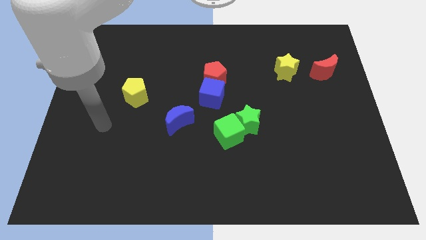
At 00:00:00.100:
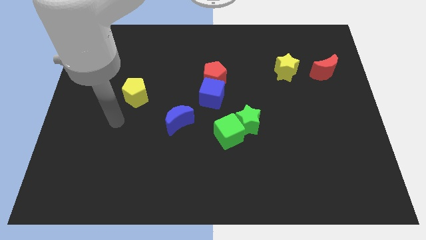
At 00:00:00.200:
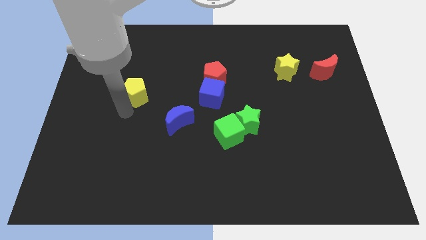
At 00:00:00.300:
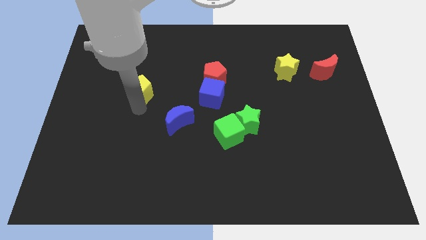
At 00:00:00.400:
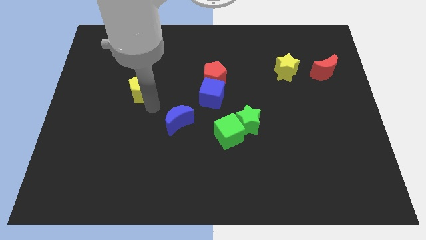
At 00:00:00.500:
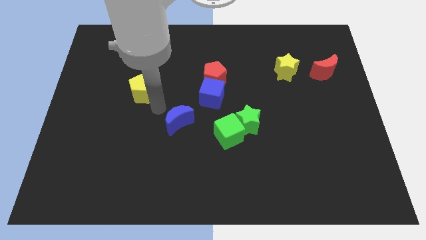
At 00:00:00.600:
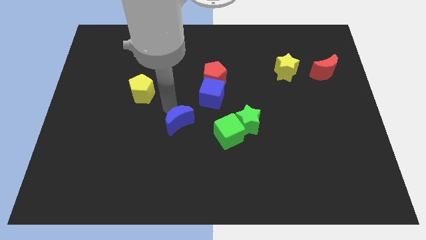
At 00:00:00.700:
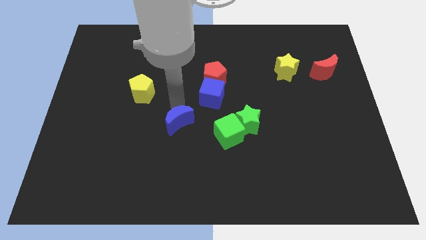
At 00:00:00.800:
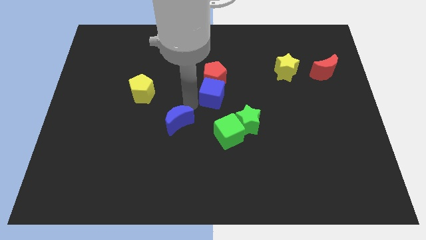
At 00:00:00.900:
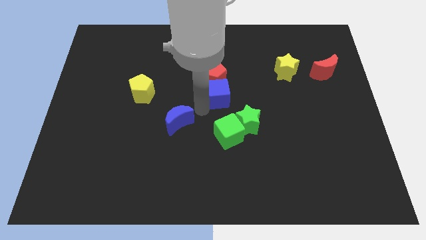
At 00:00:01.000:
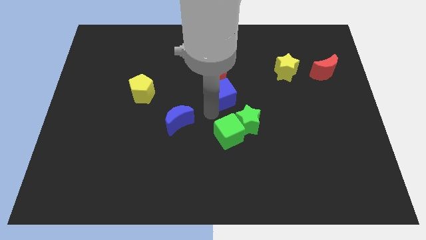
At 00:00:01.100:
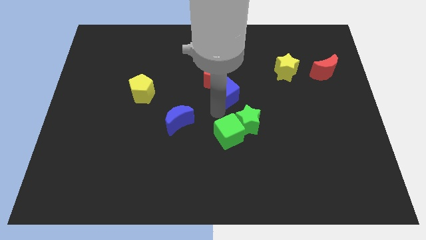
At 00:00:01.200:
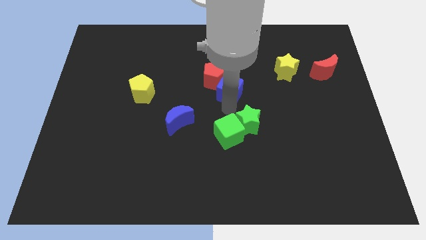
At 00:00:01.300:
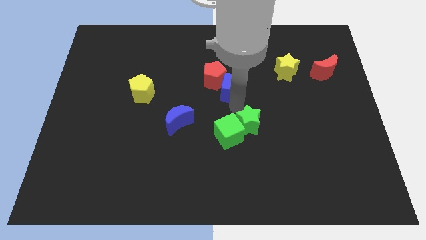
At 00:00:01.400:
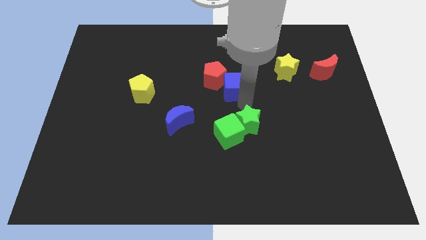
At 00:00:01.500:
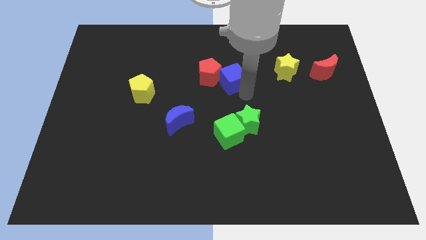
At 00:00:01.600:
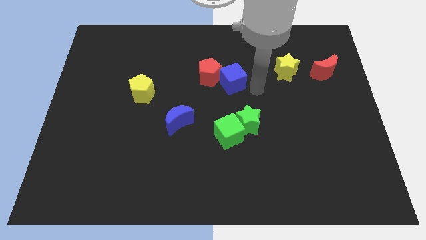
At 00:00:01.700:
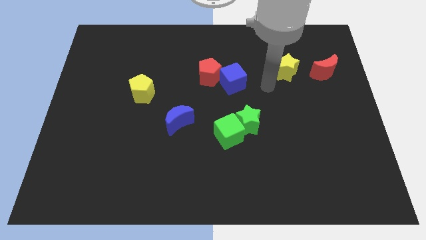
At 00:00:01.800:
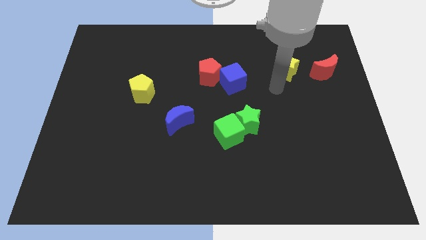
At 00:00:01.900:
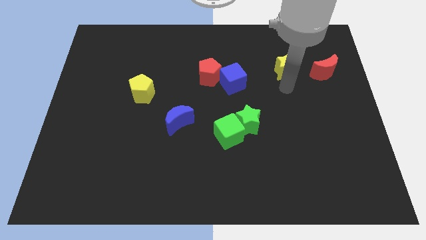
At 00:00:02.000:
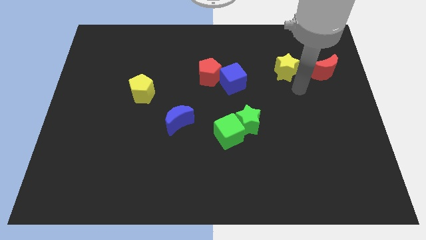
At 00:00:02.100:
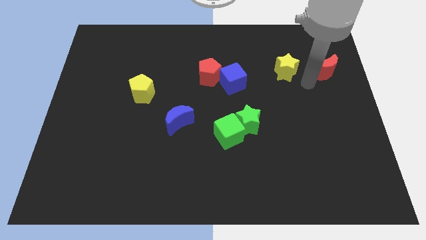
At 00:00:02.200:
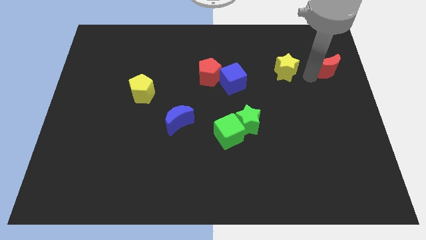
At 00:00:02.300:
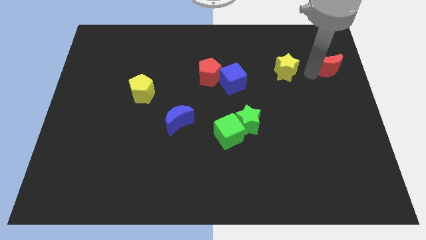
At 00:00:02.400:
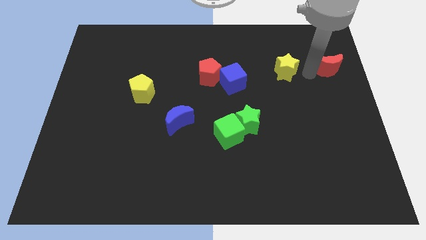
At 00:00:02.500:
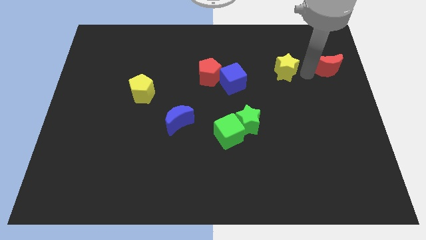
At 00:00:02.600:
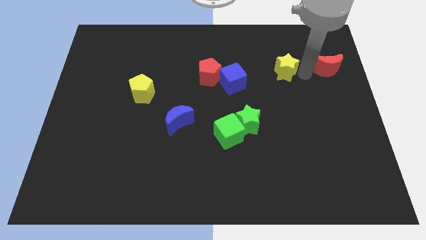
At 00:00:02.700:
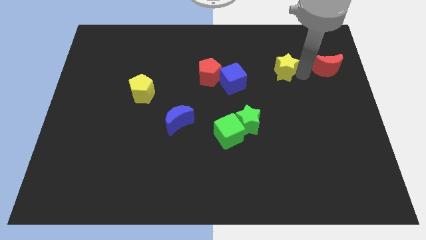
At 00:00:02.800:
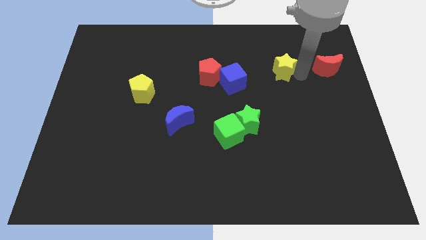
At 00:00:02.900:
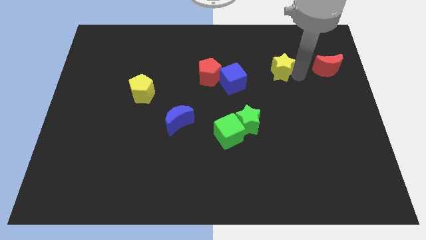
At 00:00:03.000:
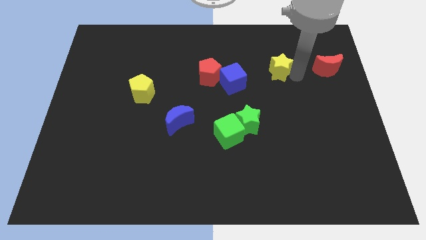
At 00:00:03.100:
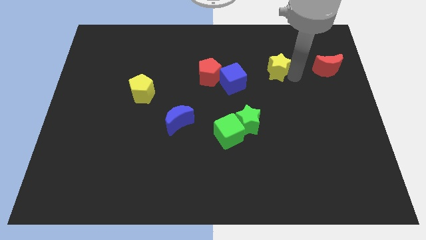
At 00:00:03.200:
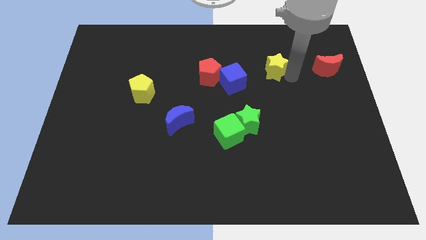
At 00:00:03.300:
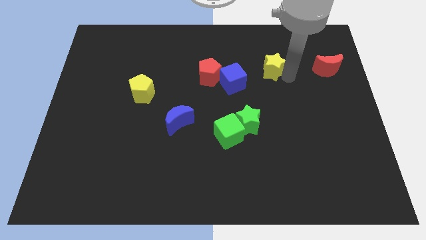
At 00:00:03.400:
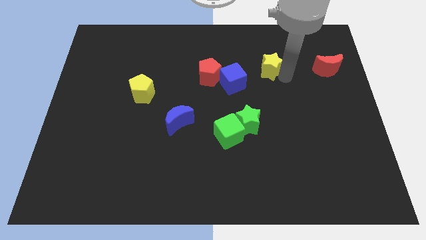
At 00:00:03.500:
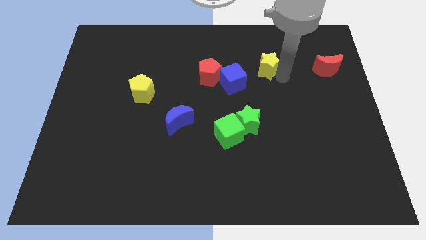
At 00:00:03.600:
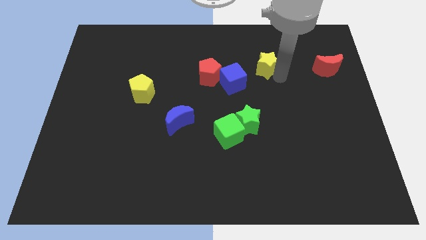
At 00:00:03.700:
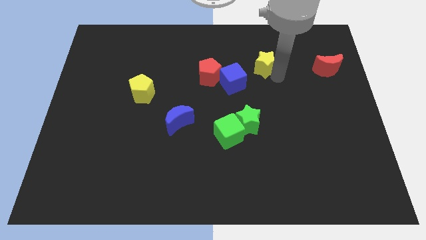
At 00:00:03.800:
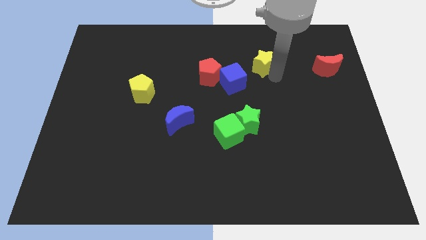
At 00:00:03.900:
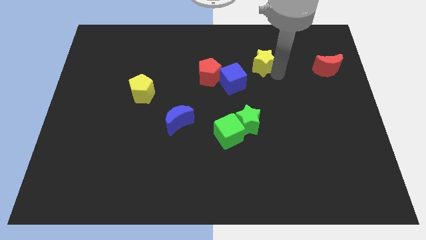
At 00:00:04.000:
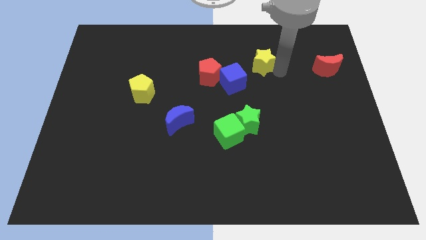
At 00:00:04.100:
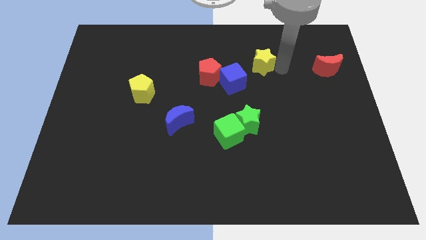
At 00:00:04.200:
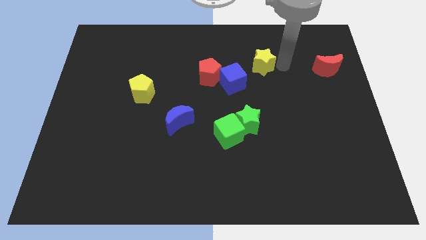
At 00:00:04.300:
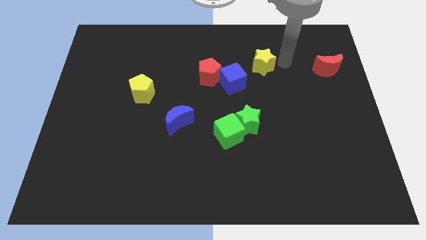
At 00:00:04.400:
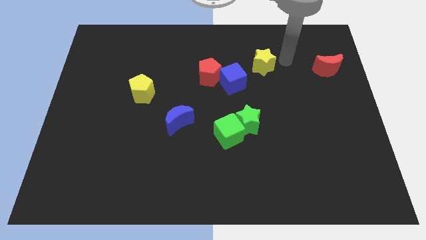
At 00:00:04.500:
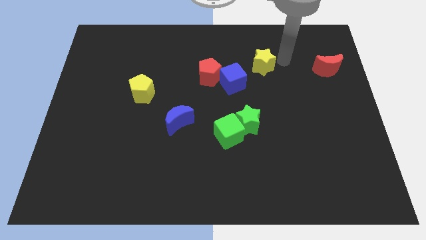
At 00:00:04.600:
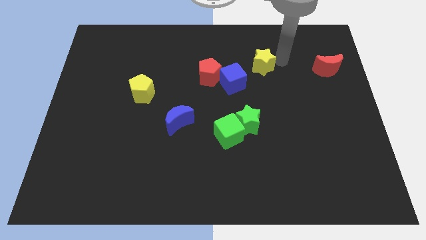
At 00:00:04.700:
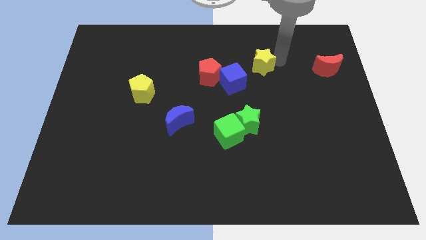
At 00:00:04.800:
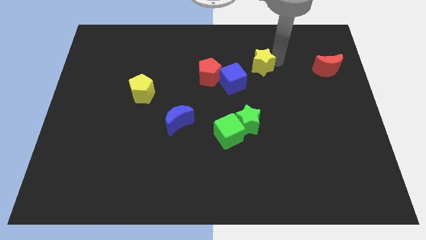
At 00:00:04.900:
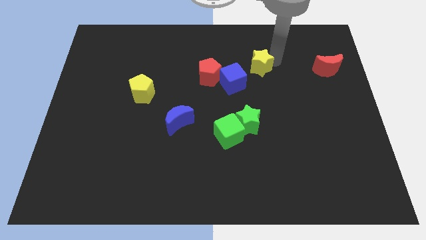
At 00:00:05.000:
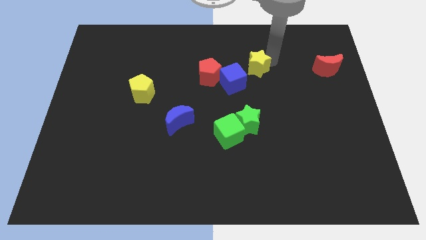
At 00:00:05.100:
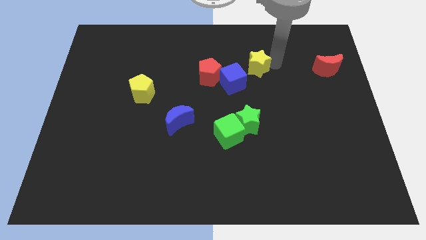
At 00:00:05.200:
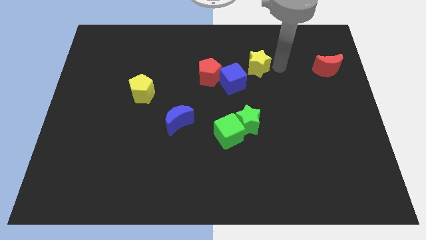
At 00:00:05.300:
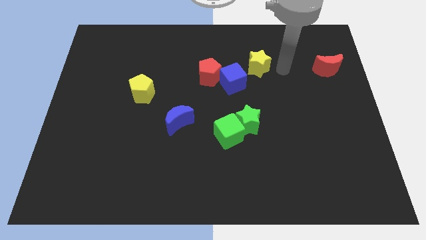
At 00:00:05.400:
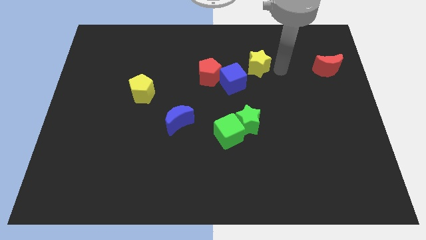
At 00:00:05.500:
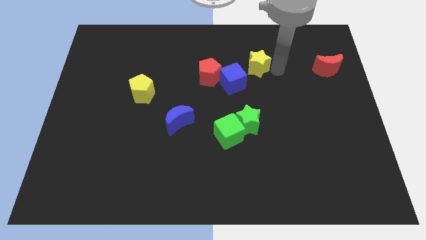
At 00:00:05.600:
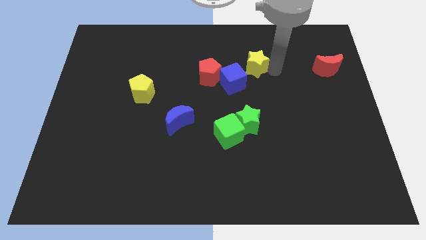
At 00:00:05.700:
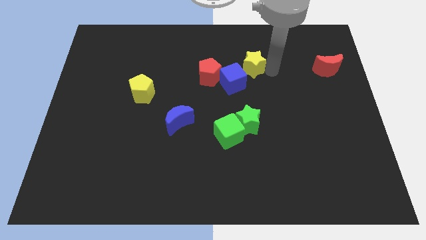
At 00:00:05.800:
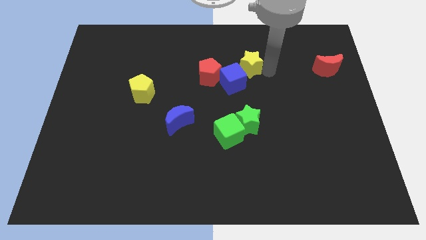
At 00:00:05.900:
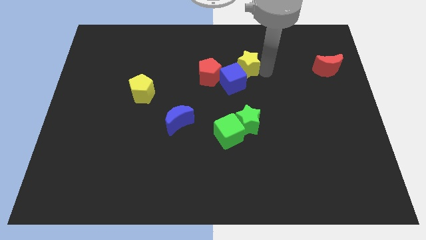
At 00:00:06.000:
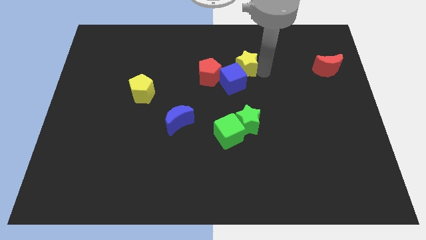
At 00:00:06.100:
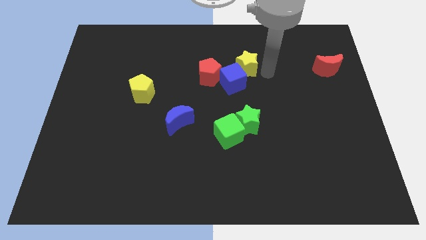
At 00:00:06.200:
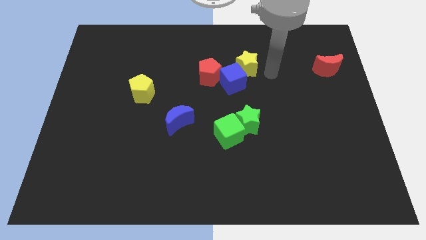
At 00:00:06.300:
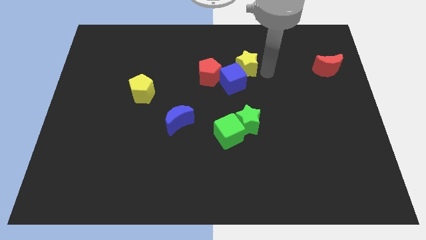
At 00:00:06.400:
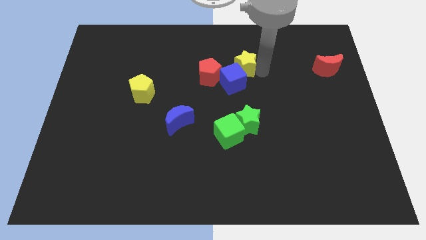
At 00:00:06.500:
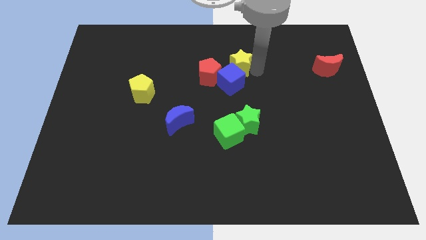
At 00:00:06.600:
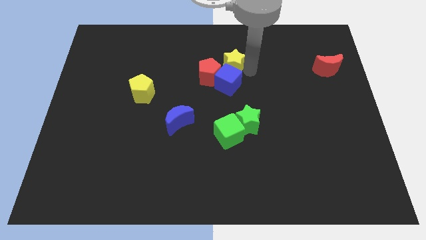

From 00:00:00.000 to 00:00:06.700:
put the yellow star above the blue cube

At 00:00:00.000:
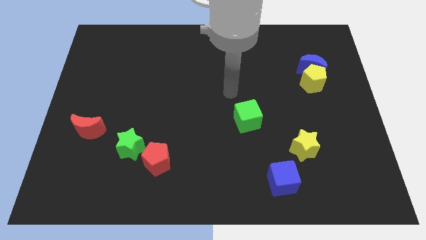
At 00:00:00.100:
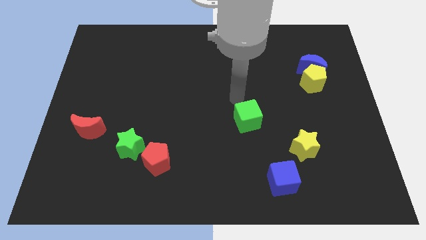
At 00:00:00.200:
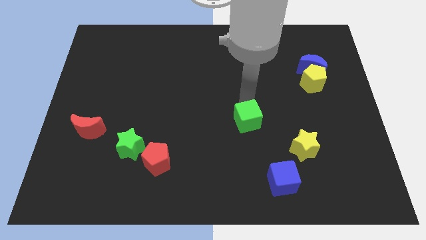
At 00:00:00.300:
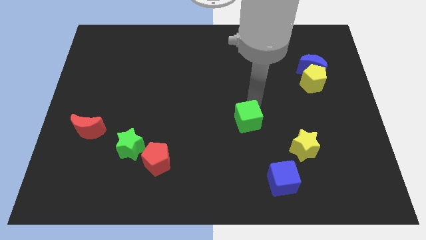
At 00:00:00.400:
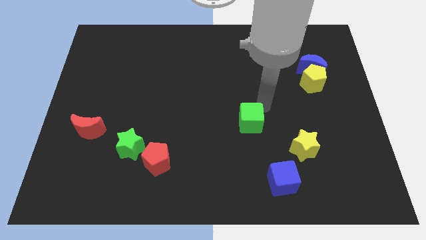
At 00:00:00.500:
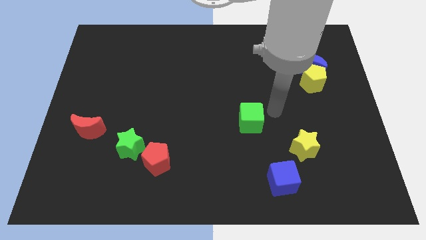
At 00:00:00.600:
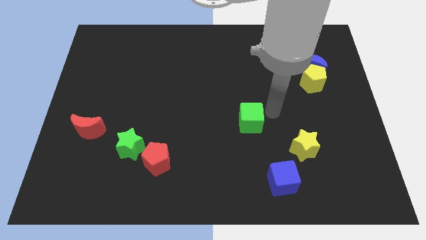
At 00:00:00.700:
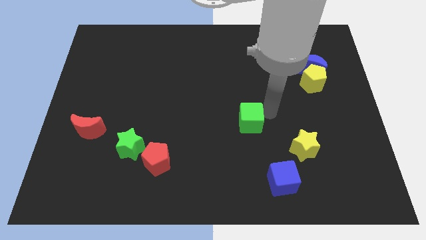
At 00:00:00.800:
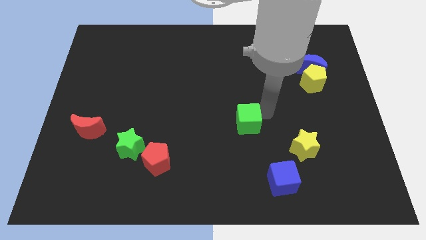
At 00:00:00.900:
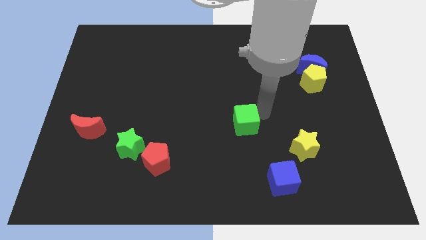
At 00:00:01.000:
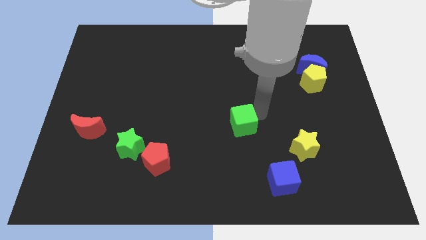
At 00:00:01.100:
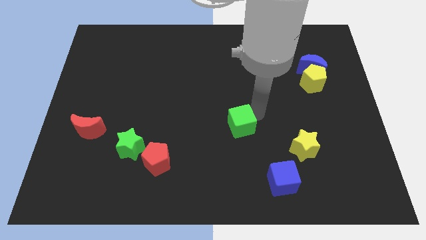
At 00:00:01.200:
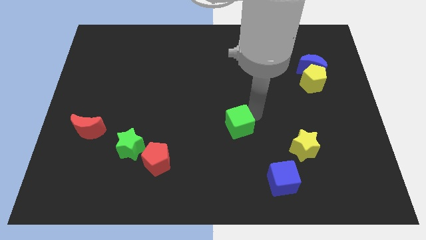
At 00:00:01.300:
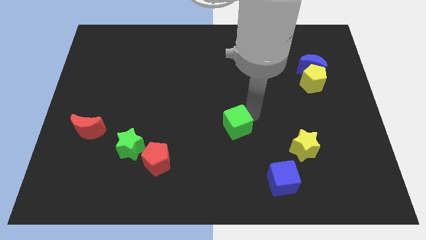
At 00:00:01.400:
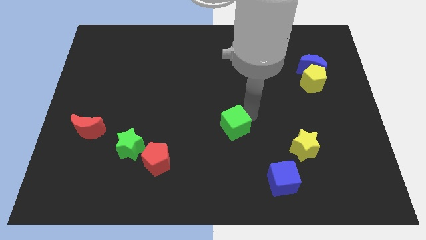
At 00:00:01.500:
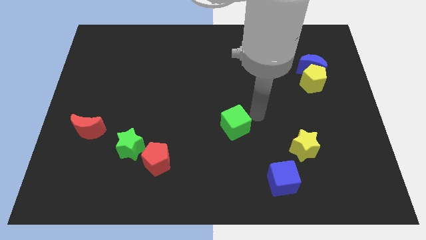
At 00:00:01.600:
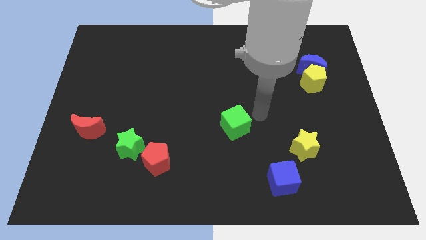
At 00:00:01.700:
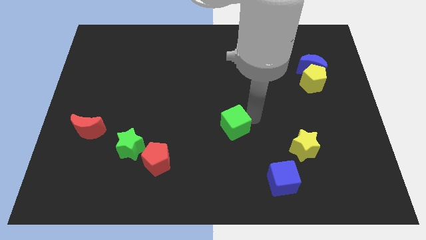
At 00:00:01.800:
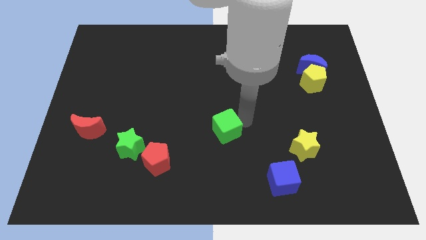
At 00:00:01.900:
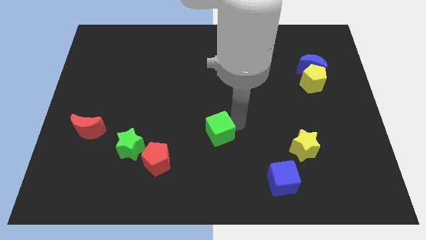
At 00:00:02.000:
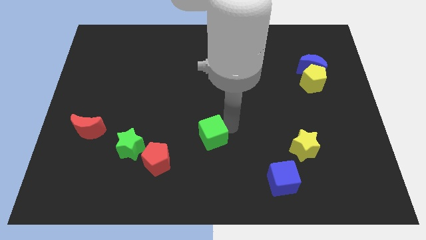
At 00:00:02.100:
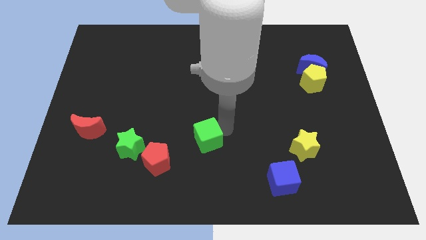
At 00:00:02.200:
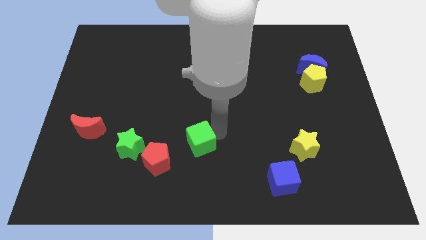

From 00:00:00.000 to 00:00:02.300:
slide the green cube right of the green star
